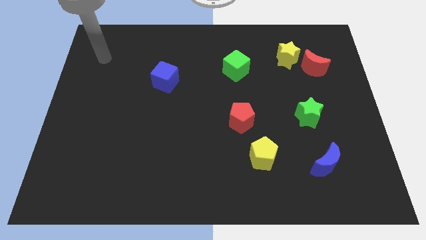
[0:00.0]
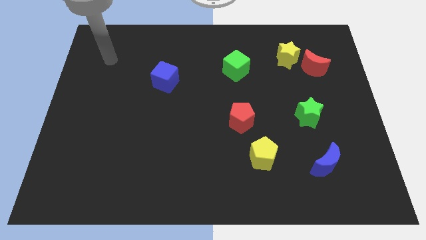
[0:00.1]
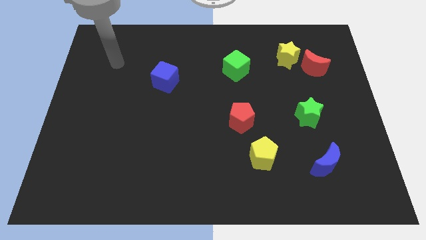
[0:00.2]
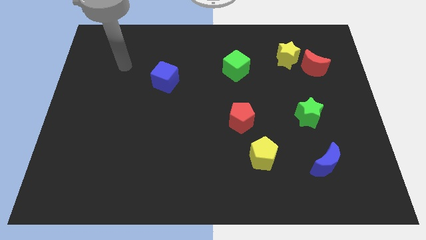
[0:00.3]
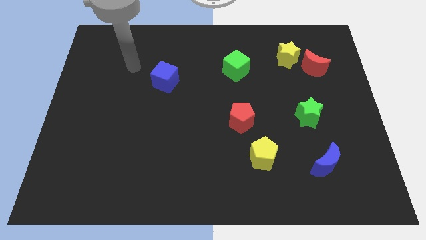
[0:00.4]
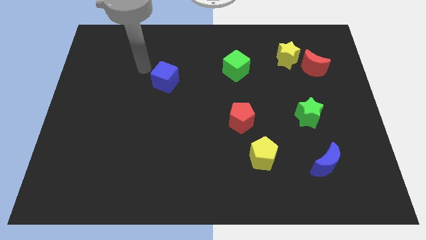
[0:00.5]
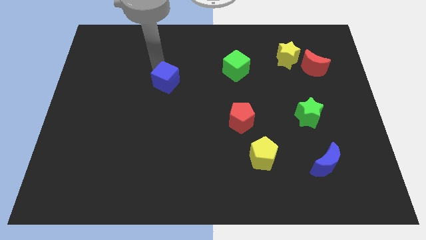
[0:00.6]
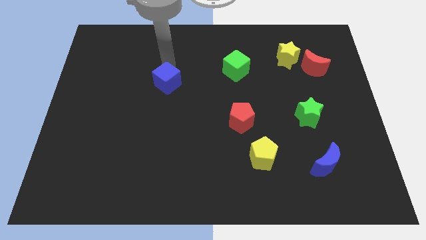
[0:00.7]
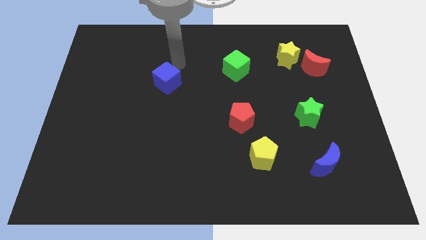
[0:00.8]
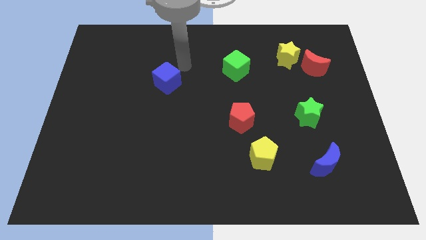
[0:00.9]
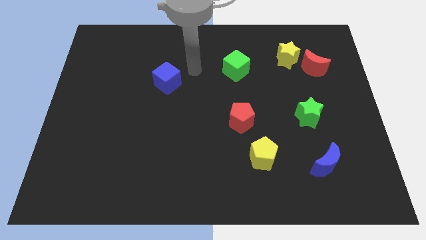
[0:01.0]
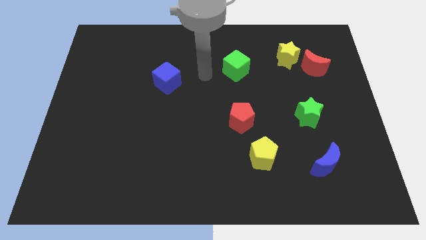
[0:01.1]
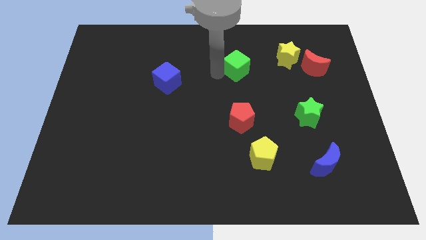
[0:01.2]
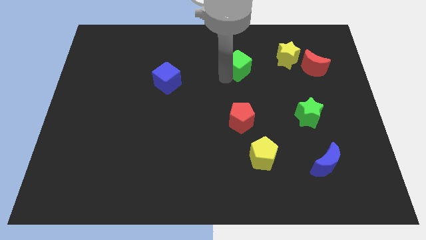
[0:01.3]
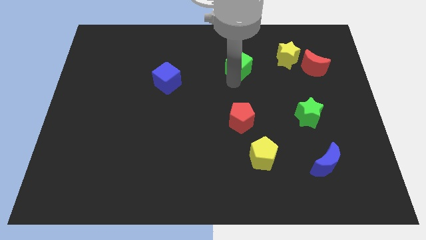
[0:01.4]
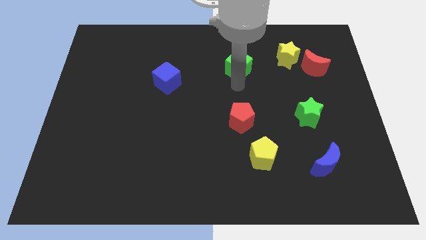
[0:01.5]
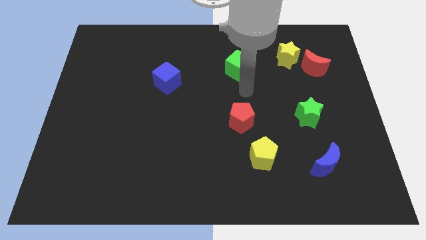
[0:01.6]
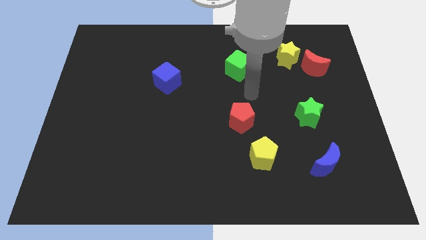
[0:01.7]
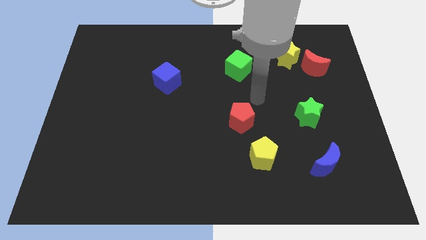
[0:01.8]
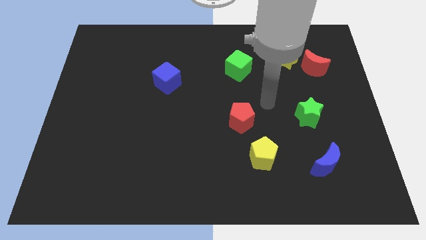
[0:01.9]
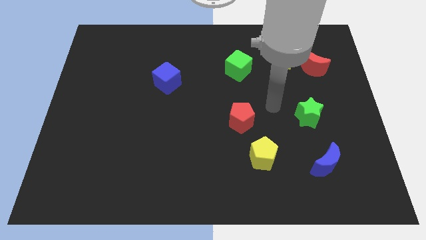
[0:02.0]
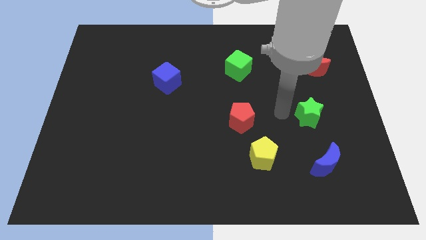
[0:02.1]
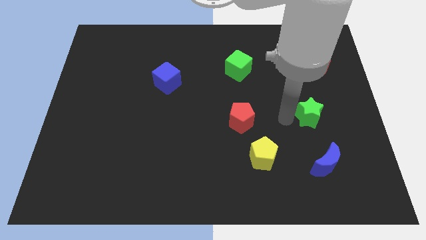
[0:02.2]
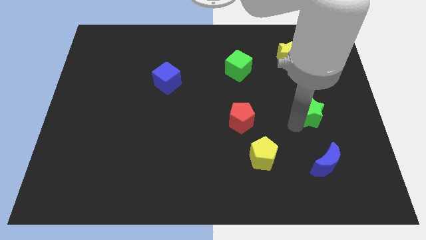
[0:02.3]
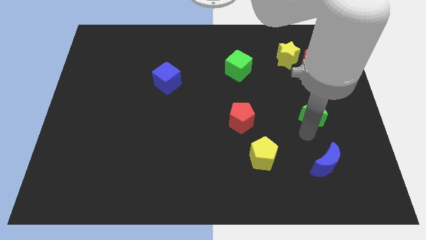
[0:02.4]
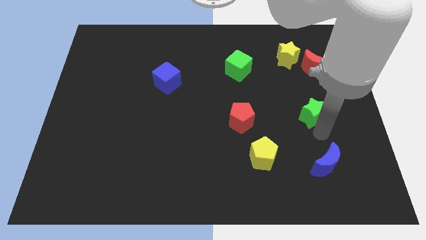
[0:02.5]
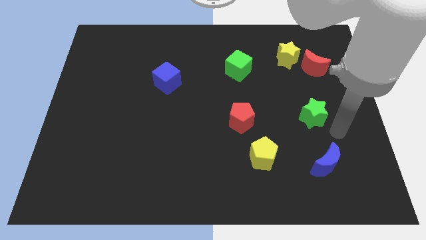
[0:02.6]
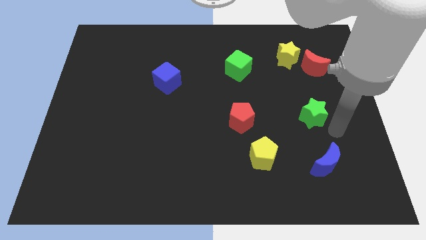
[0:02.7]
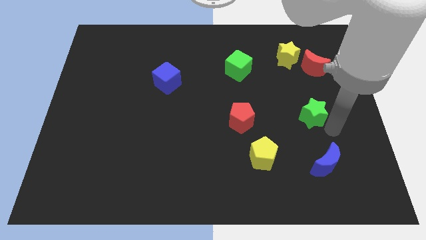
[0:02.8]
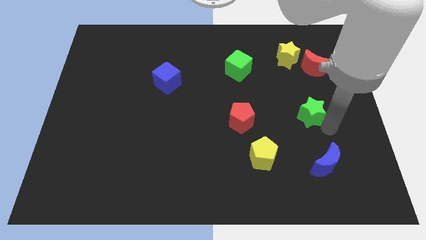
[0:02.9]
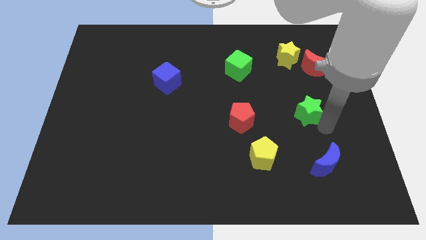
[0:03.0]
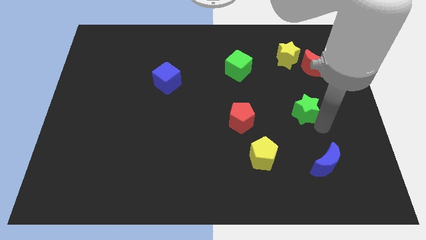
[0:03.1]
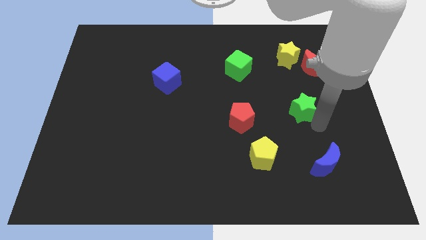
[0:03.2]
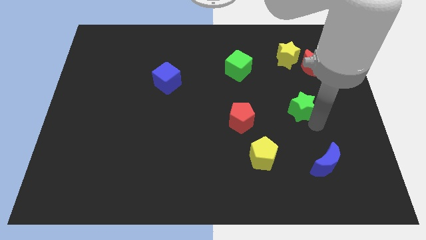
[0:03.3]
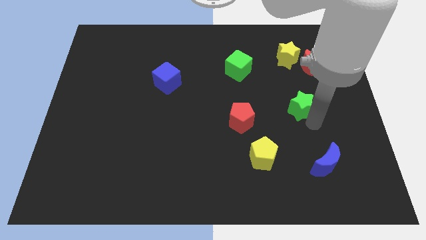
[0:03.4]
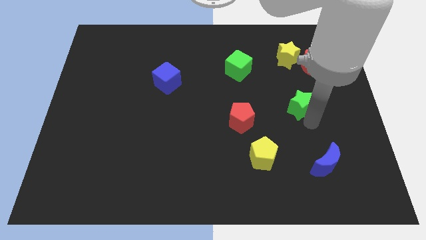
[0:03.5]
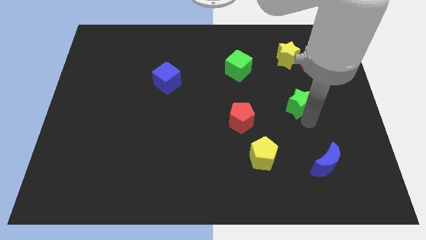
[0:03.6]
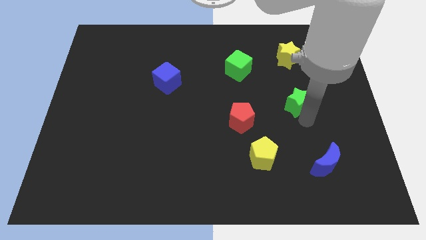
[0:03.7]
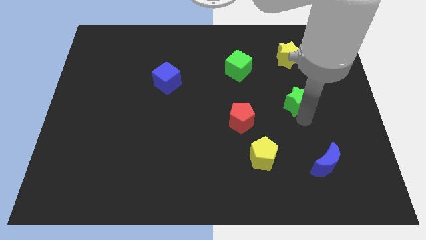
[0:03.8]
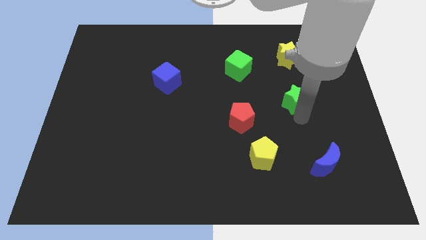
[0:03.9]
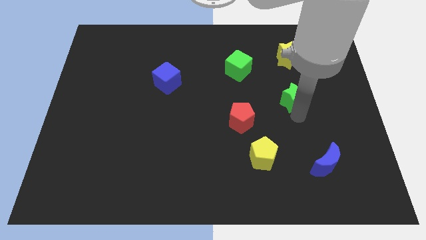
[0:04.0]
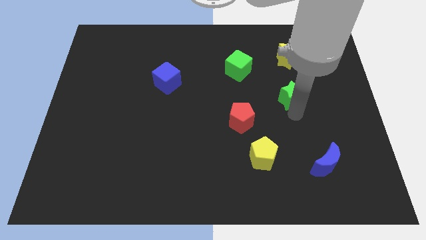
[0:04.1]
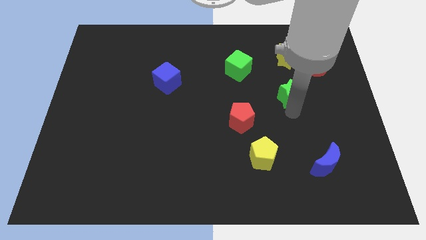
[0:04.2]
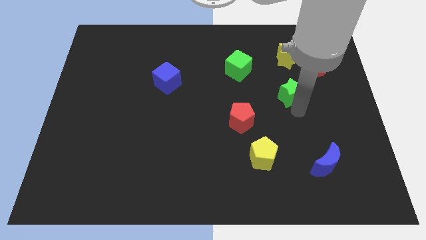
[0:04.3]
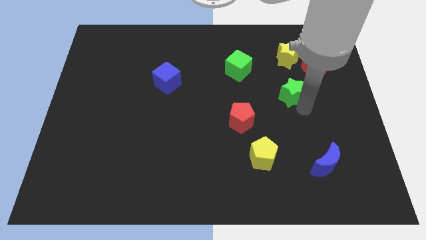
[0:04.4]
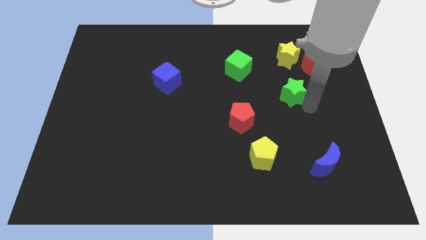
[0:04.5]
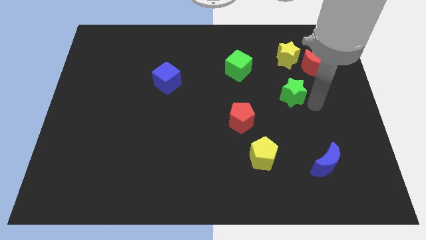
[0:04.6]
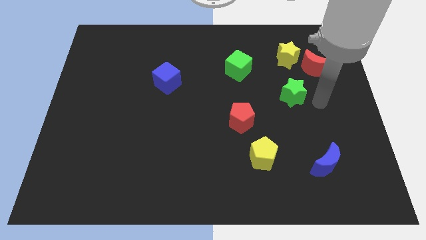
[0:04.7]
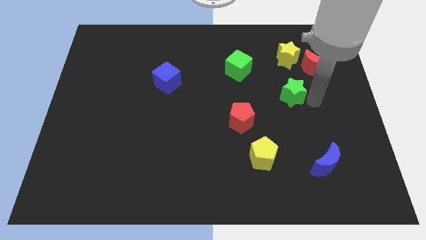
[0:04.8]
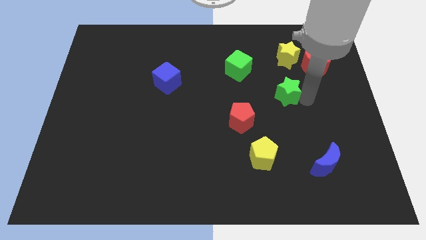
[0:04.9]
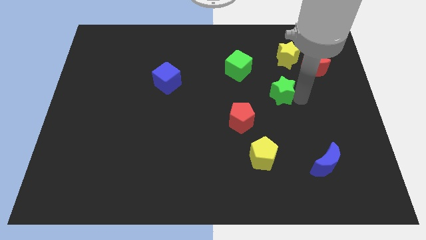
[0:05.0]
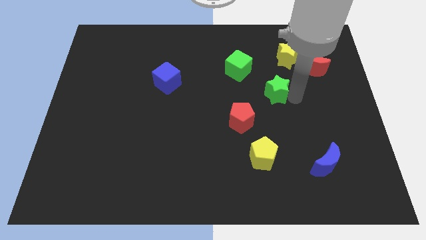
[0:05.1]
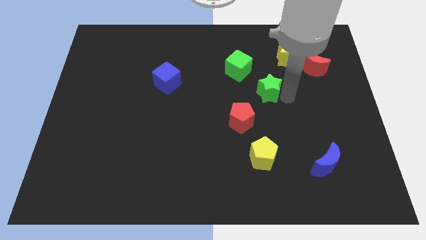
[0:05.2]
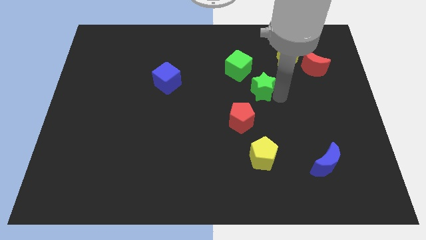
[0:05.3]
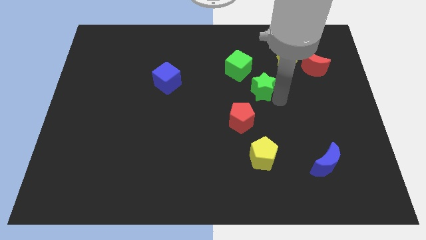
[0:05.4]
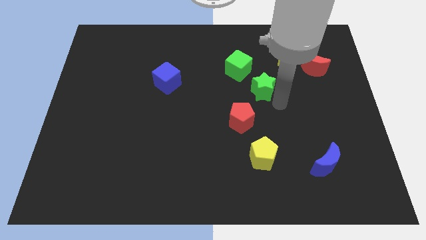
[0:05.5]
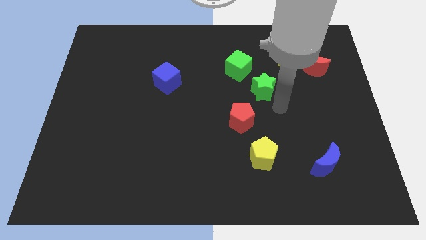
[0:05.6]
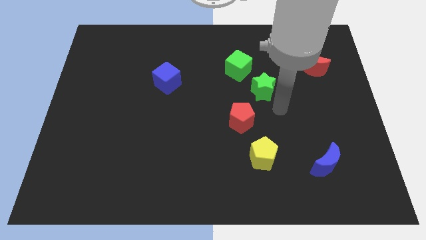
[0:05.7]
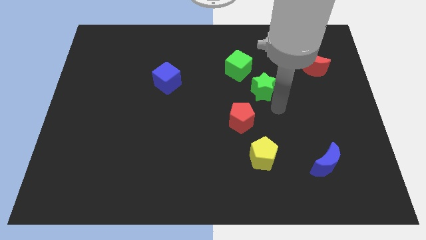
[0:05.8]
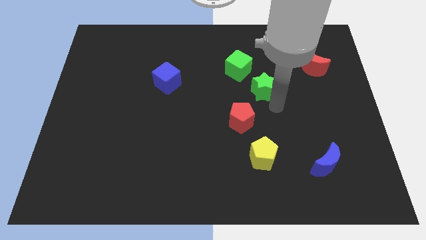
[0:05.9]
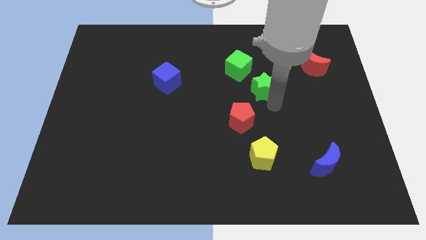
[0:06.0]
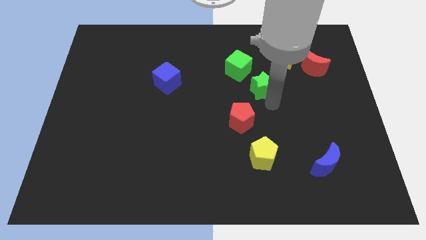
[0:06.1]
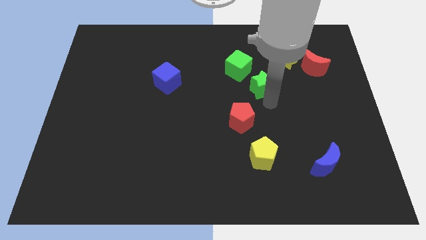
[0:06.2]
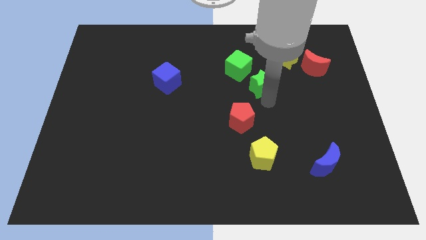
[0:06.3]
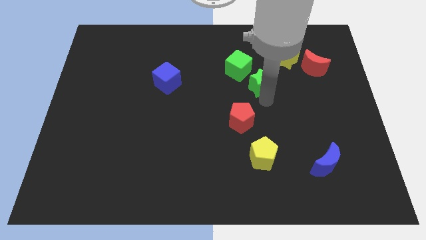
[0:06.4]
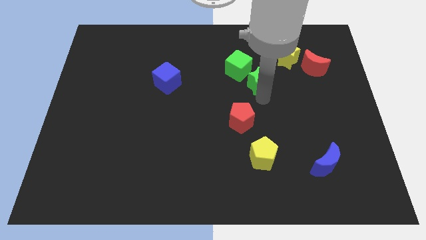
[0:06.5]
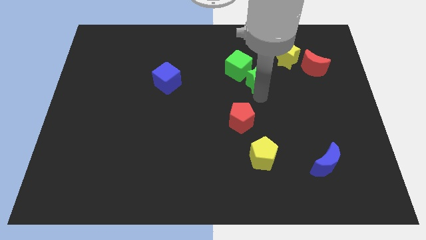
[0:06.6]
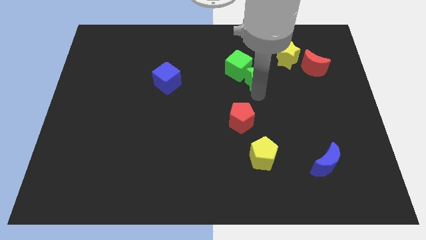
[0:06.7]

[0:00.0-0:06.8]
put the green star close to the green cube
